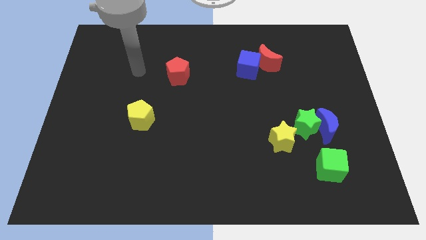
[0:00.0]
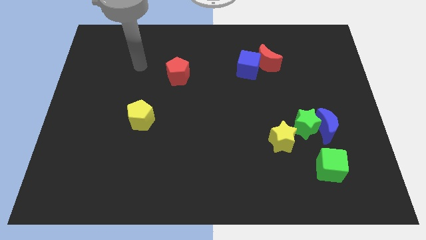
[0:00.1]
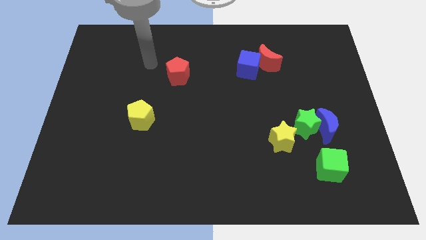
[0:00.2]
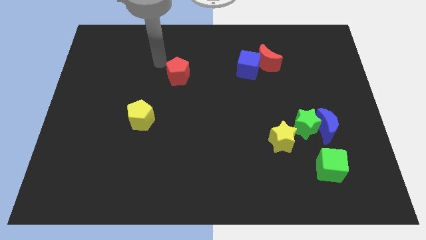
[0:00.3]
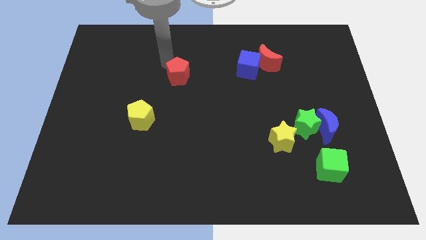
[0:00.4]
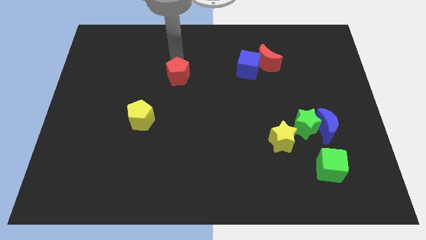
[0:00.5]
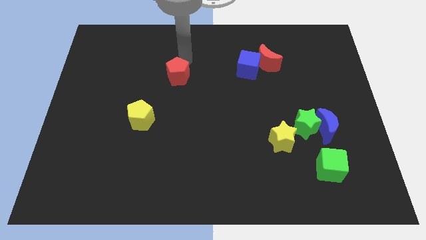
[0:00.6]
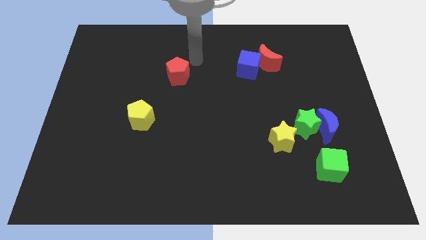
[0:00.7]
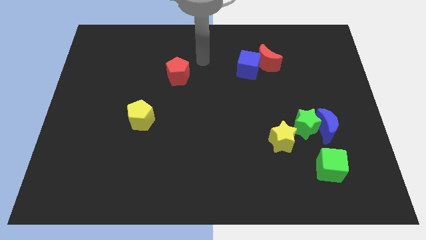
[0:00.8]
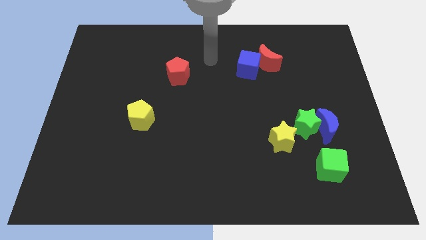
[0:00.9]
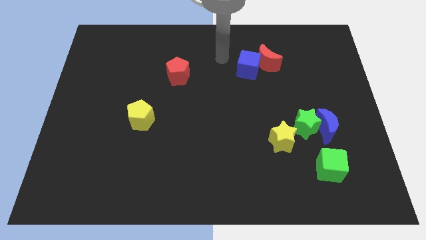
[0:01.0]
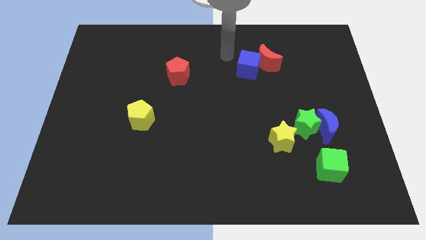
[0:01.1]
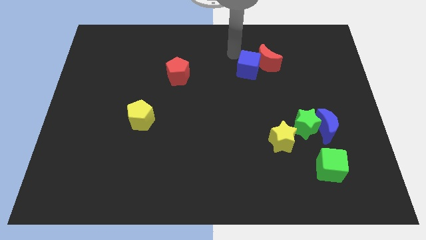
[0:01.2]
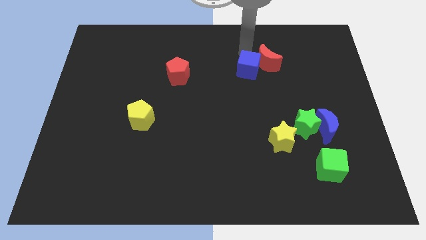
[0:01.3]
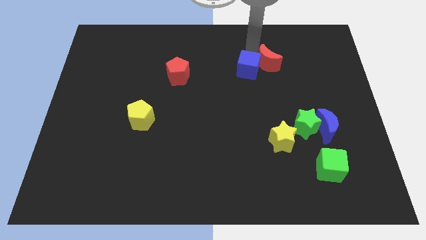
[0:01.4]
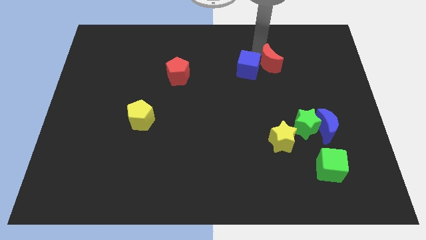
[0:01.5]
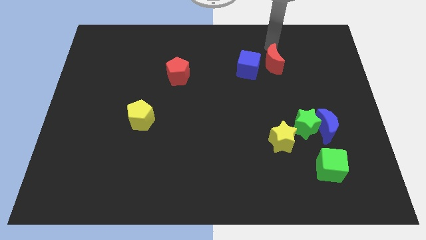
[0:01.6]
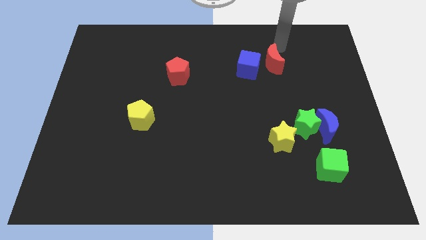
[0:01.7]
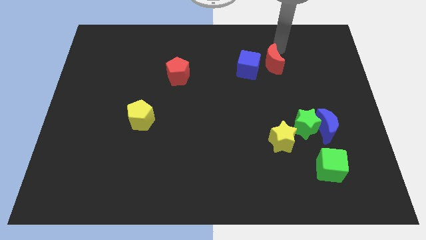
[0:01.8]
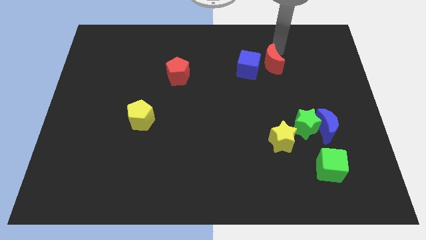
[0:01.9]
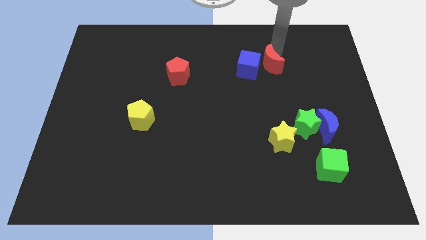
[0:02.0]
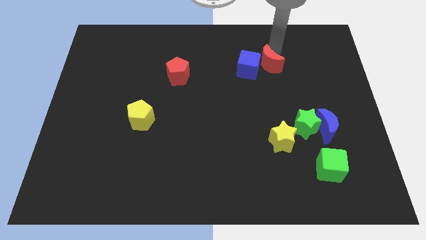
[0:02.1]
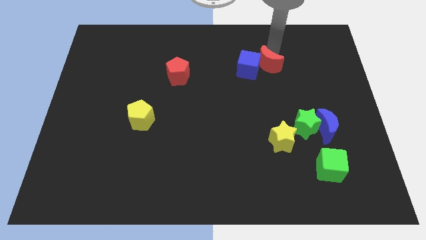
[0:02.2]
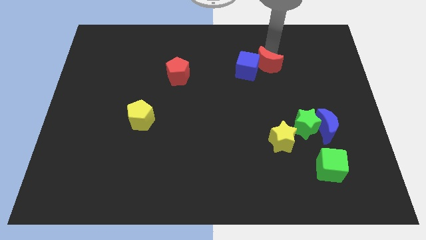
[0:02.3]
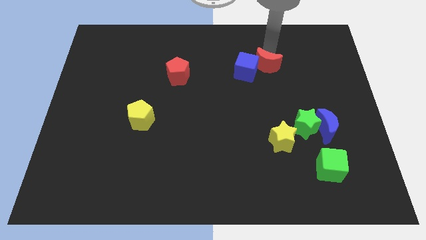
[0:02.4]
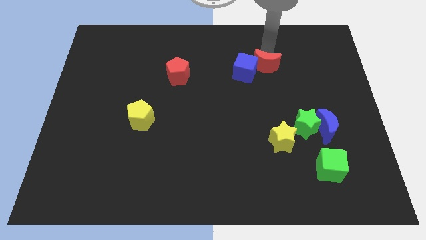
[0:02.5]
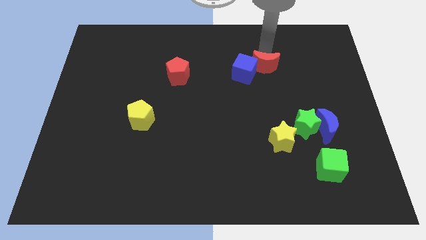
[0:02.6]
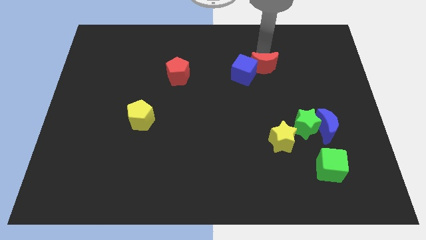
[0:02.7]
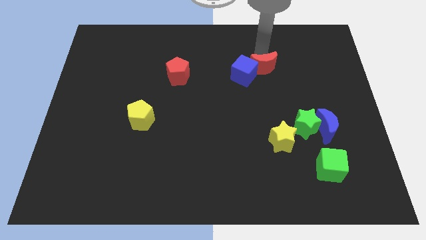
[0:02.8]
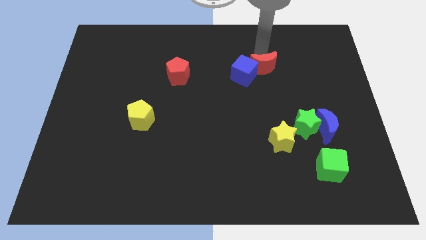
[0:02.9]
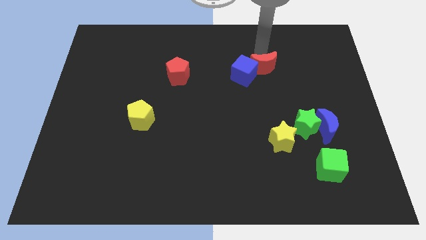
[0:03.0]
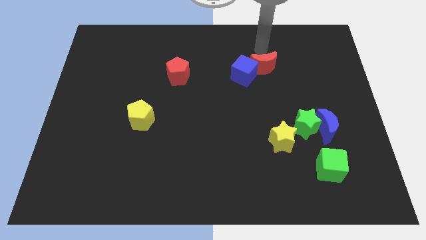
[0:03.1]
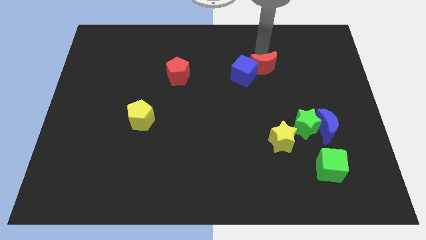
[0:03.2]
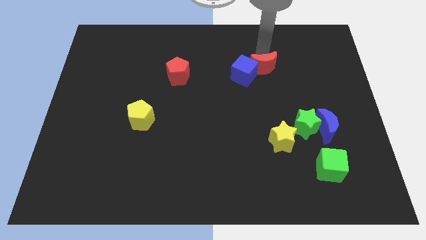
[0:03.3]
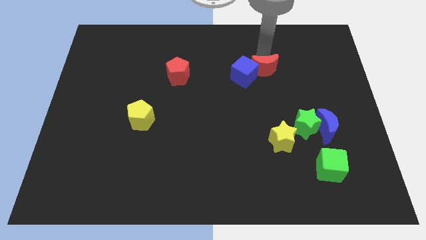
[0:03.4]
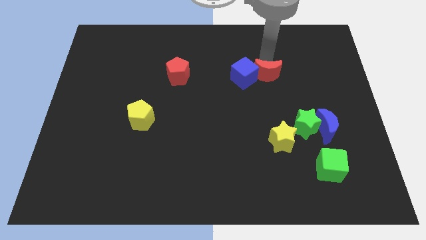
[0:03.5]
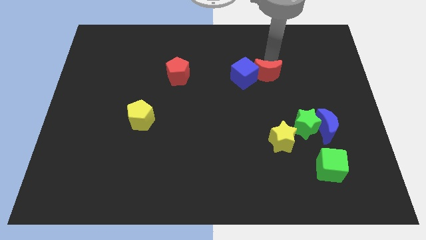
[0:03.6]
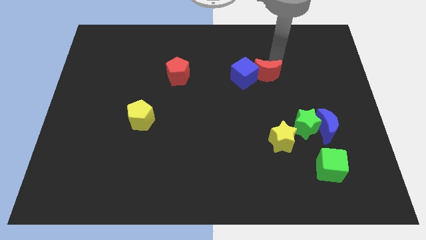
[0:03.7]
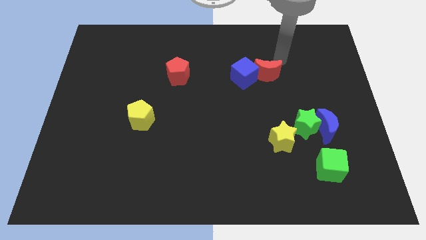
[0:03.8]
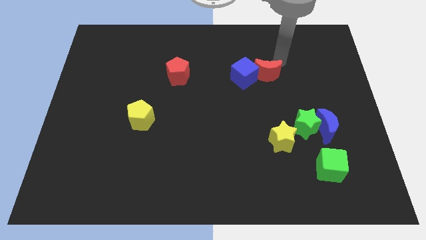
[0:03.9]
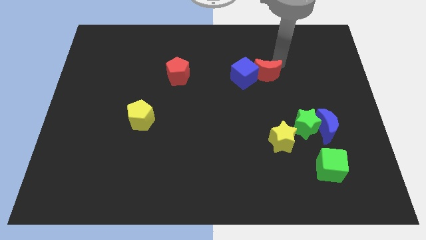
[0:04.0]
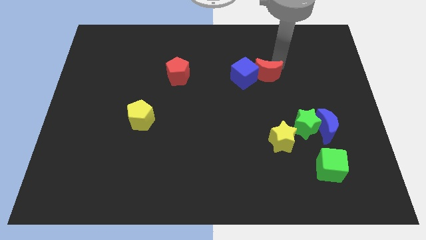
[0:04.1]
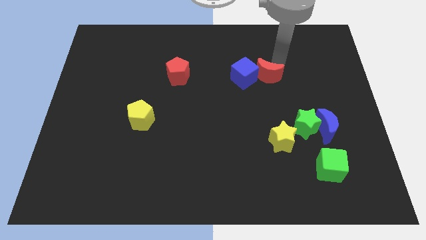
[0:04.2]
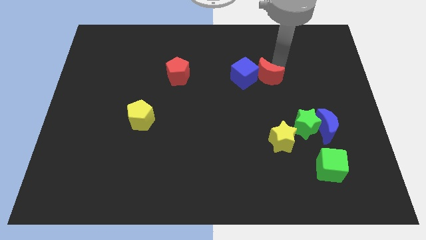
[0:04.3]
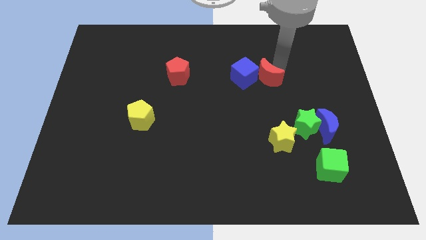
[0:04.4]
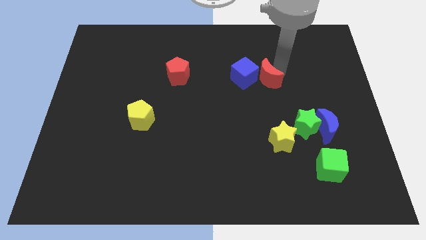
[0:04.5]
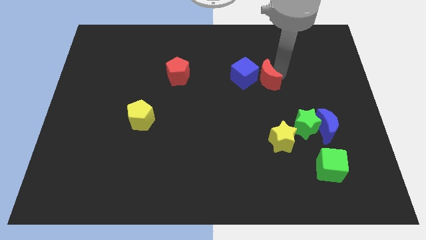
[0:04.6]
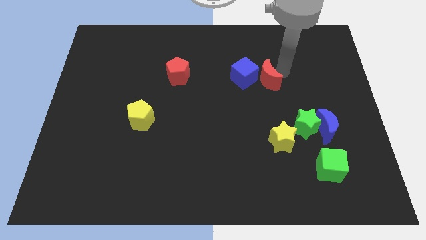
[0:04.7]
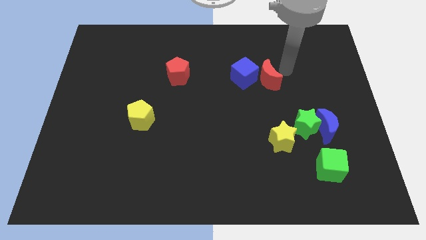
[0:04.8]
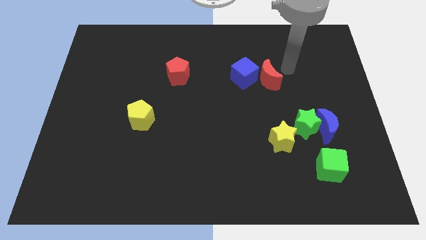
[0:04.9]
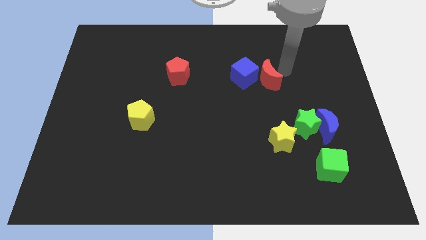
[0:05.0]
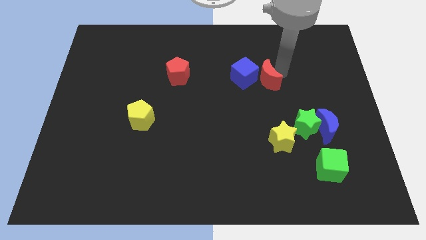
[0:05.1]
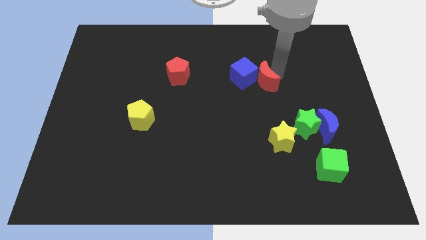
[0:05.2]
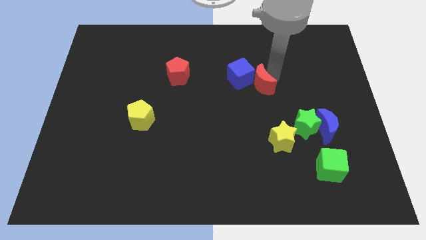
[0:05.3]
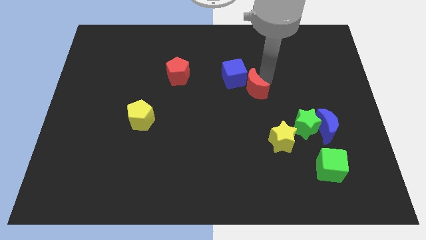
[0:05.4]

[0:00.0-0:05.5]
push the red moon to the bottom of the blue cube

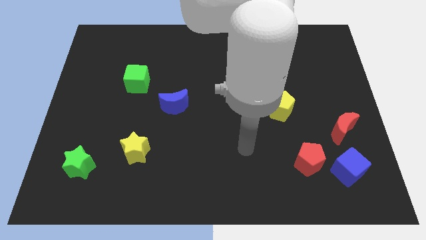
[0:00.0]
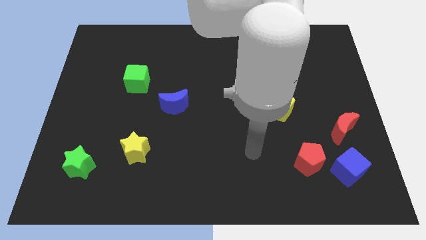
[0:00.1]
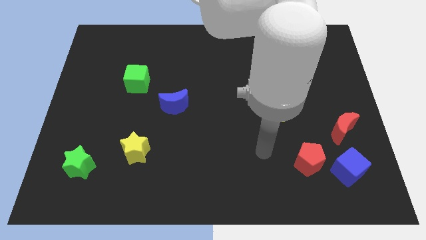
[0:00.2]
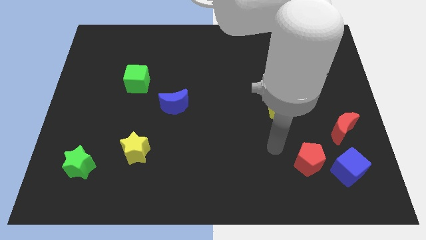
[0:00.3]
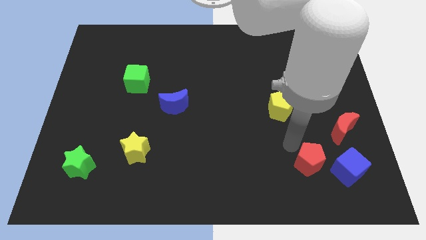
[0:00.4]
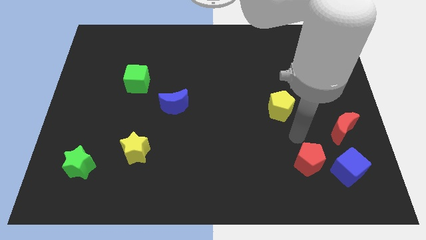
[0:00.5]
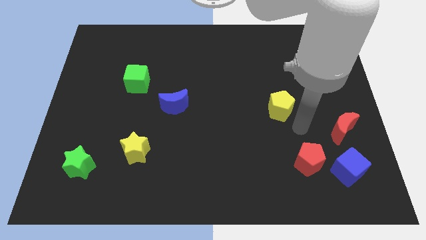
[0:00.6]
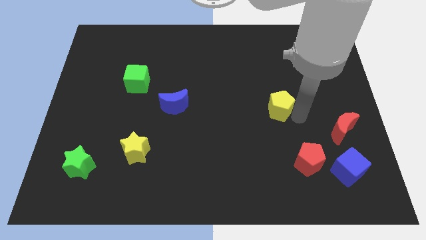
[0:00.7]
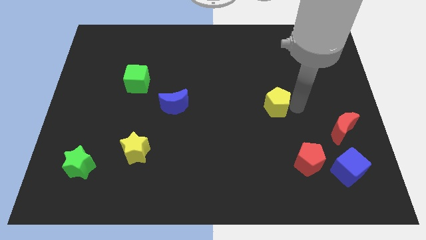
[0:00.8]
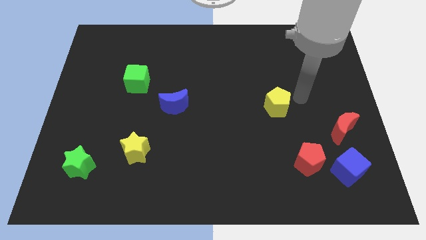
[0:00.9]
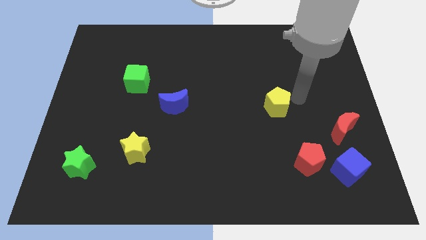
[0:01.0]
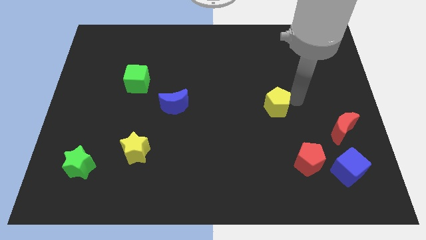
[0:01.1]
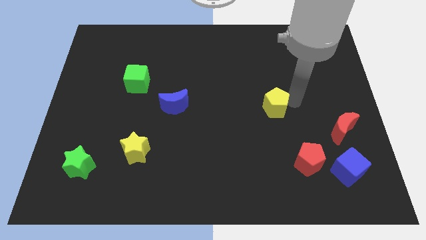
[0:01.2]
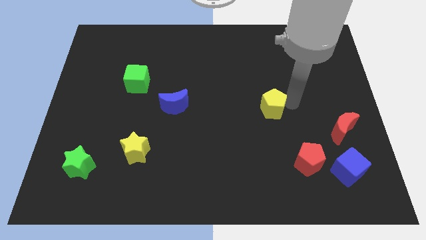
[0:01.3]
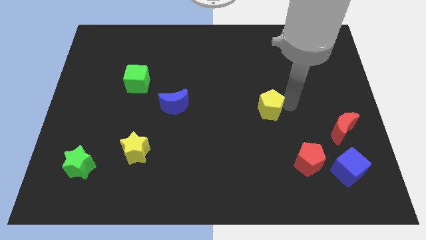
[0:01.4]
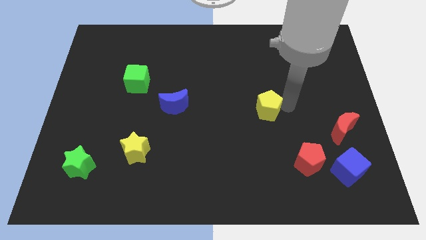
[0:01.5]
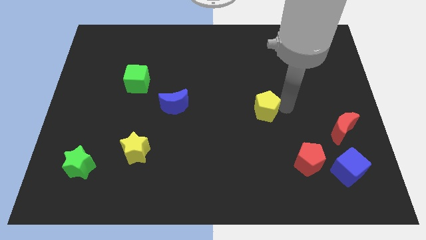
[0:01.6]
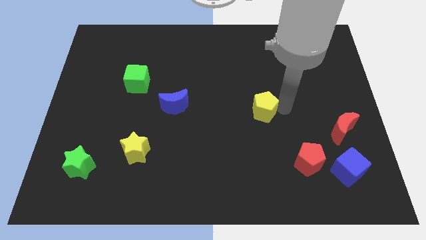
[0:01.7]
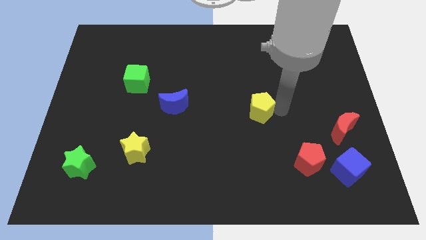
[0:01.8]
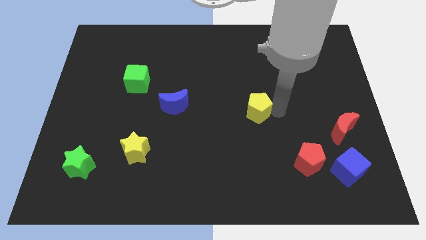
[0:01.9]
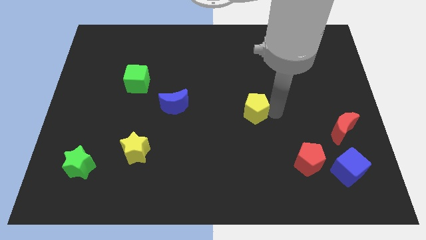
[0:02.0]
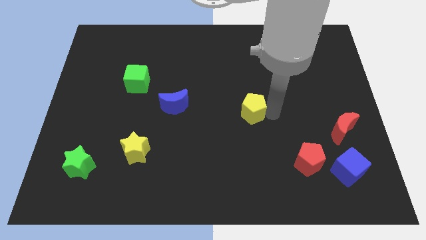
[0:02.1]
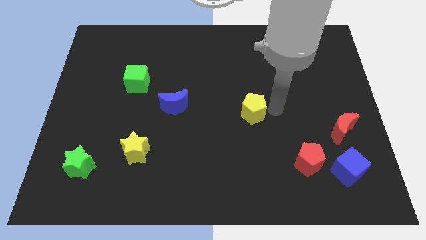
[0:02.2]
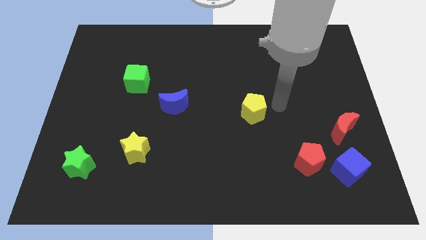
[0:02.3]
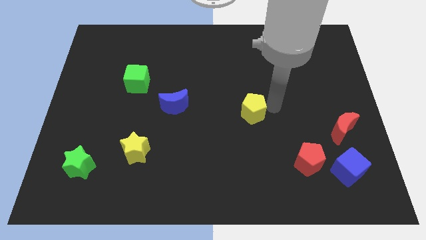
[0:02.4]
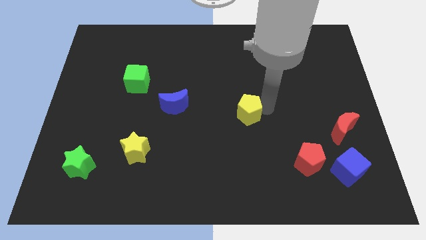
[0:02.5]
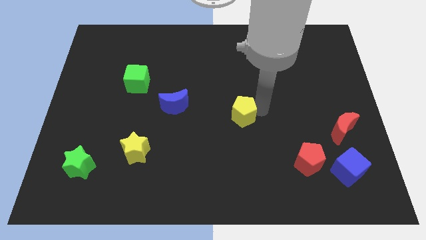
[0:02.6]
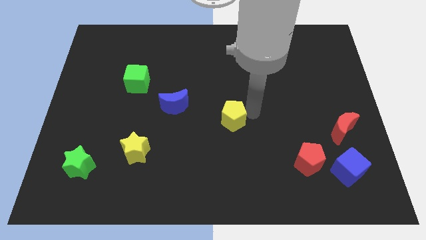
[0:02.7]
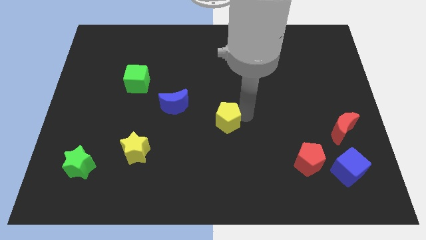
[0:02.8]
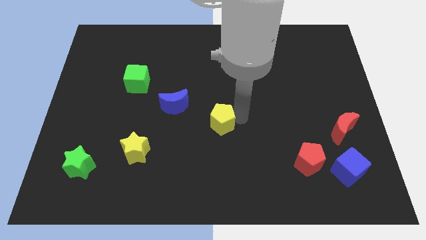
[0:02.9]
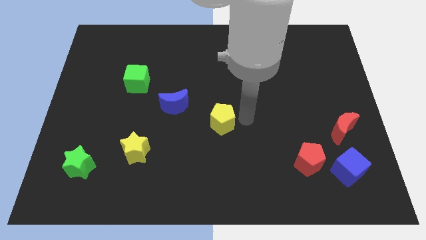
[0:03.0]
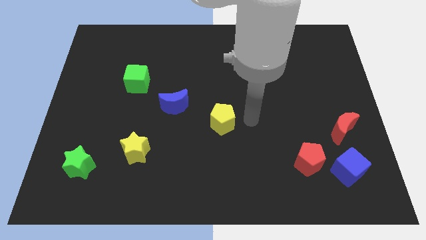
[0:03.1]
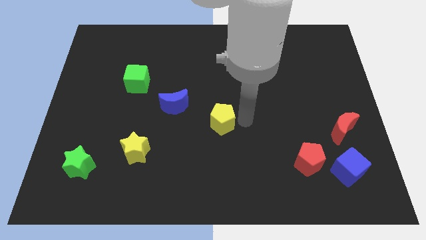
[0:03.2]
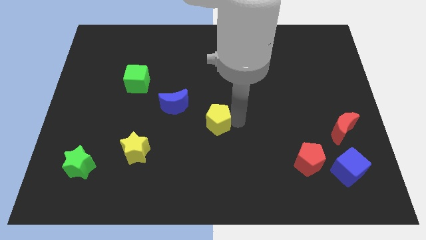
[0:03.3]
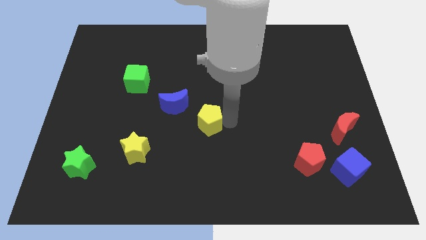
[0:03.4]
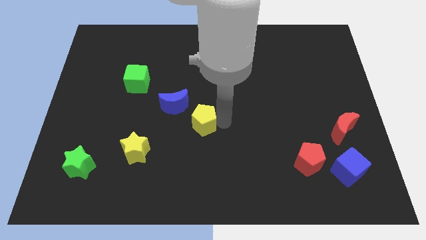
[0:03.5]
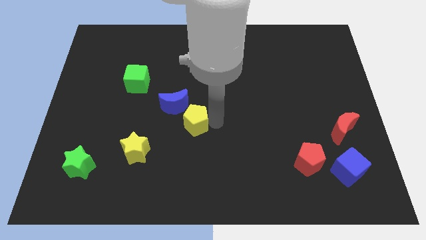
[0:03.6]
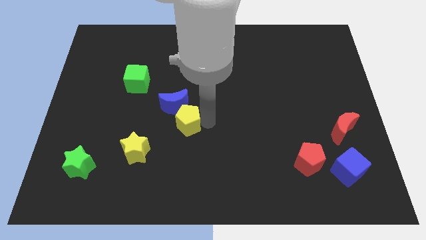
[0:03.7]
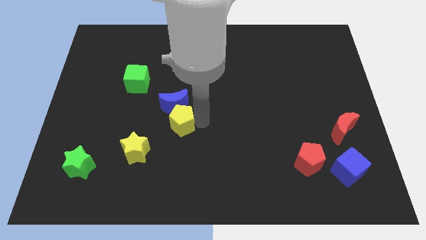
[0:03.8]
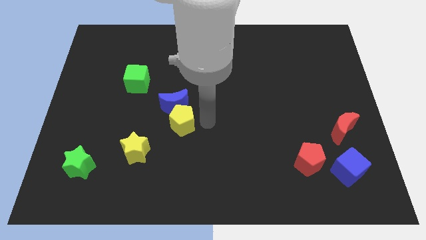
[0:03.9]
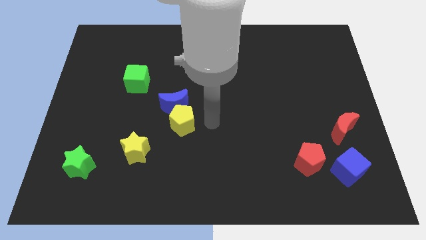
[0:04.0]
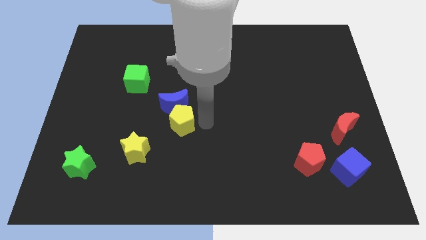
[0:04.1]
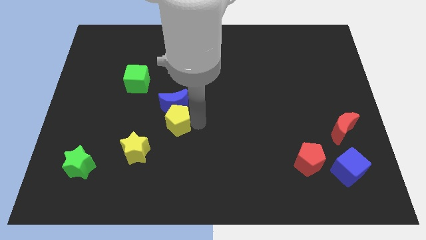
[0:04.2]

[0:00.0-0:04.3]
push the yellow pentagon to the bottom left of the blue moon
